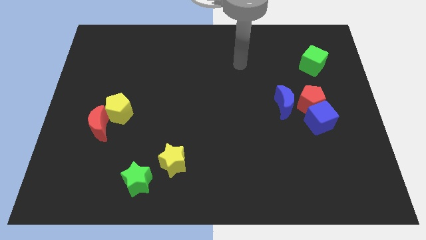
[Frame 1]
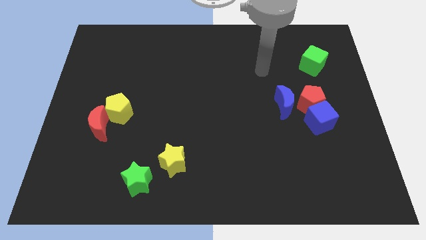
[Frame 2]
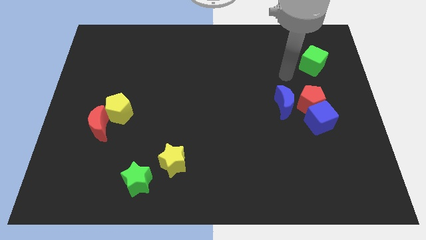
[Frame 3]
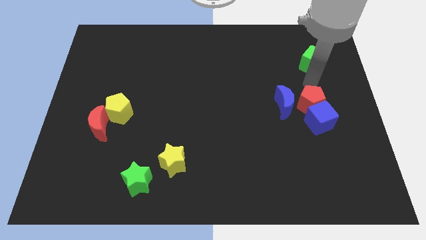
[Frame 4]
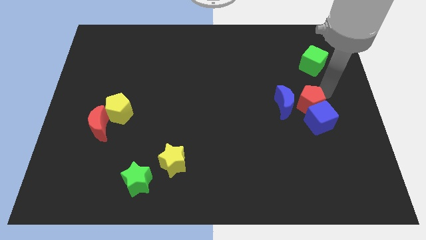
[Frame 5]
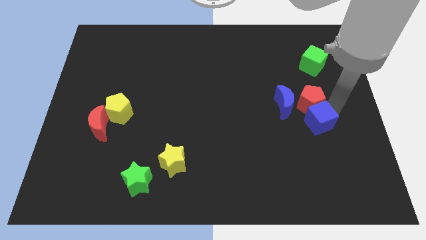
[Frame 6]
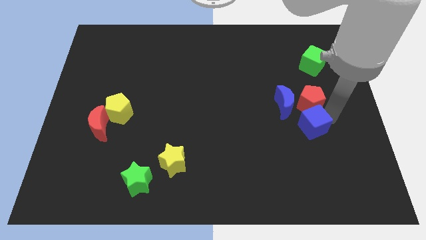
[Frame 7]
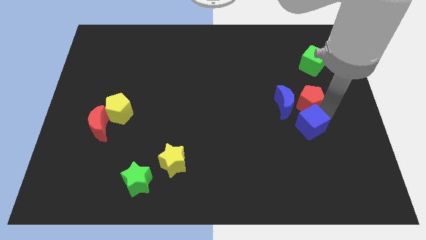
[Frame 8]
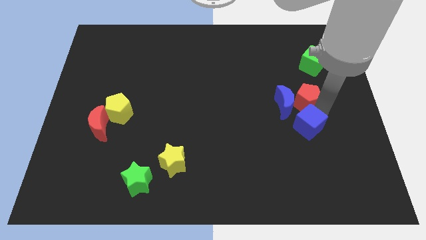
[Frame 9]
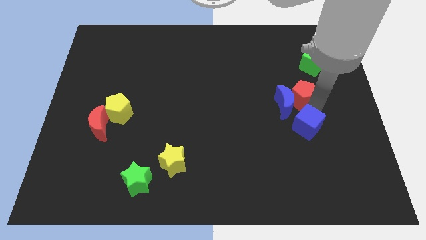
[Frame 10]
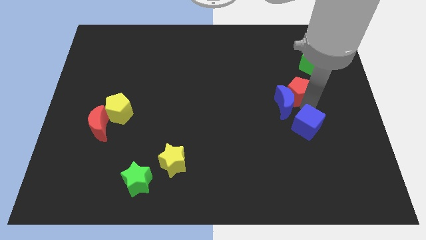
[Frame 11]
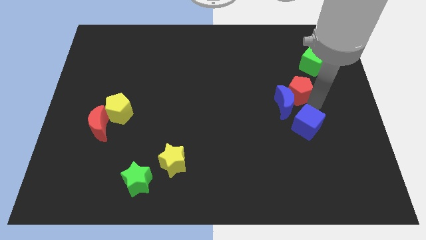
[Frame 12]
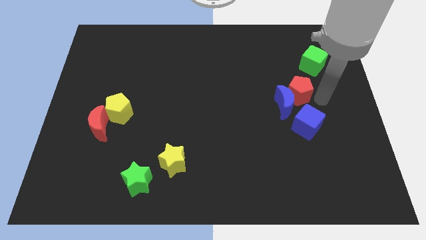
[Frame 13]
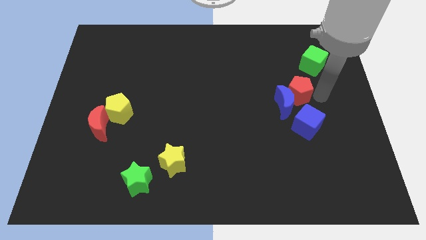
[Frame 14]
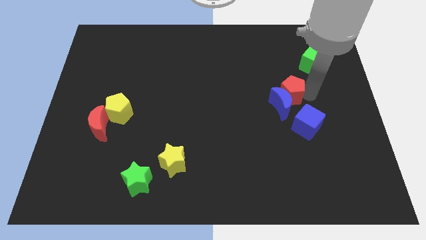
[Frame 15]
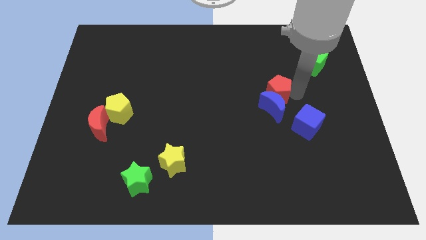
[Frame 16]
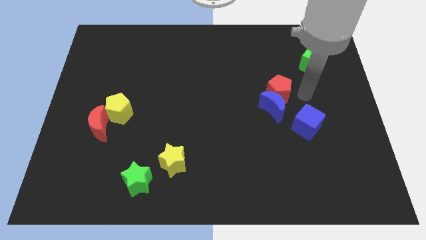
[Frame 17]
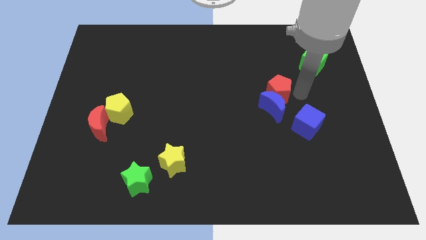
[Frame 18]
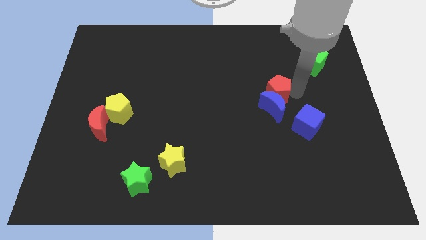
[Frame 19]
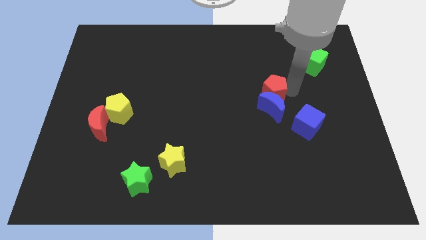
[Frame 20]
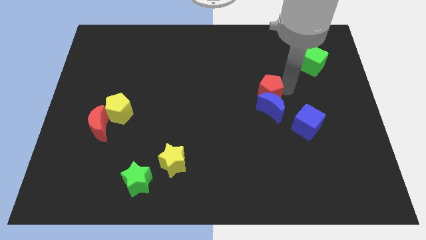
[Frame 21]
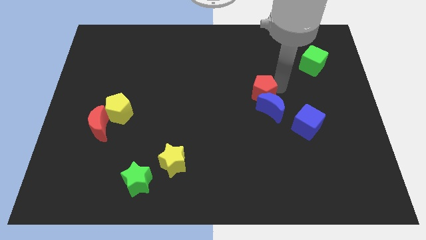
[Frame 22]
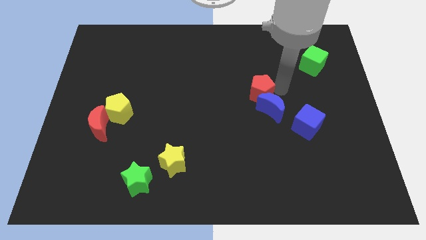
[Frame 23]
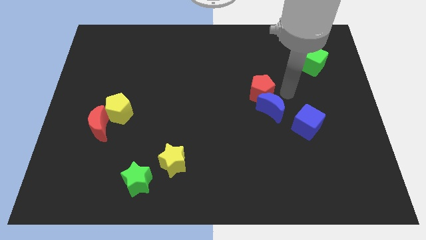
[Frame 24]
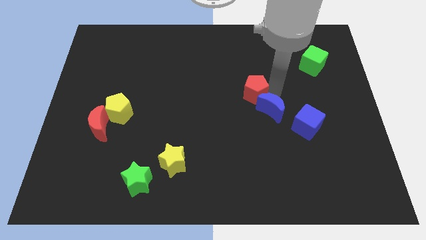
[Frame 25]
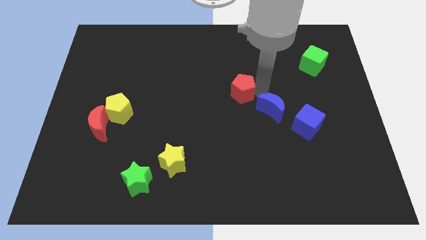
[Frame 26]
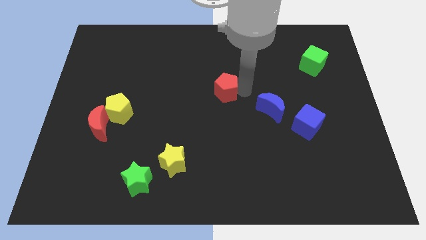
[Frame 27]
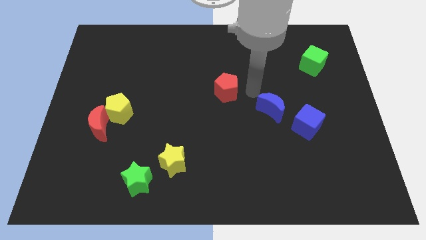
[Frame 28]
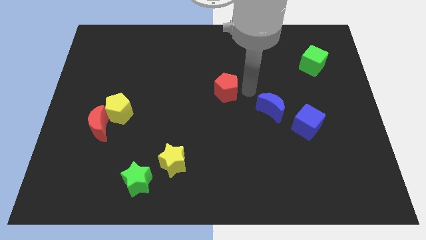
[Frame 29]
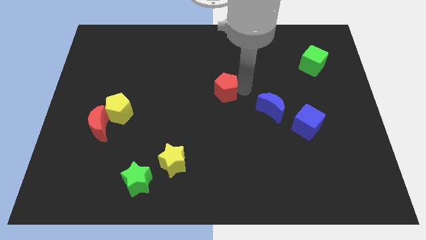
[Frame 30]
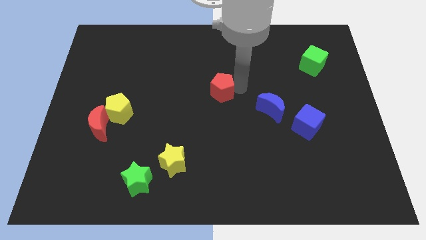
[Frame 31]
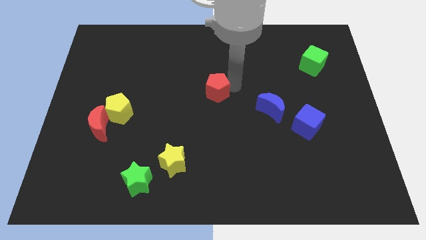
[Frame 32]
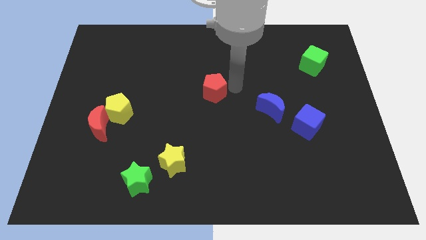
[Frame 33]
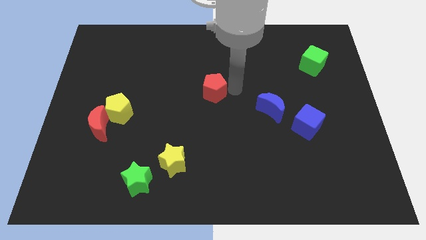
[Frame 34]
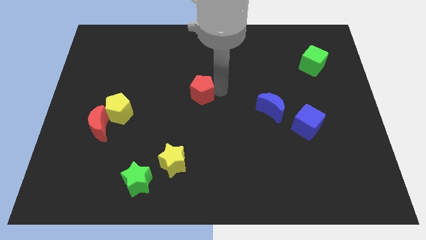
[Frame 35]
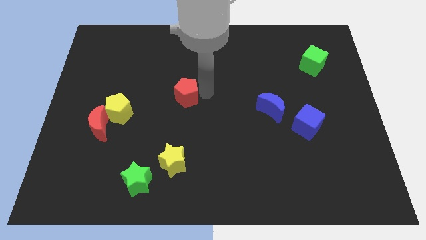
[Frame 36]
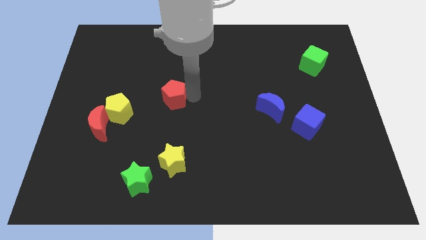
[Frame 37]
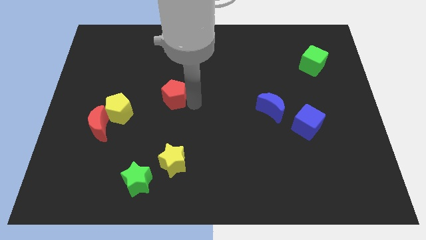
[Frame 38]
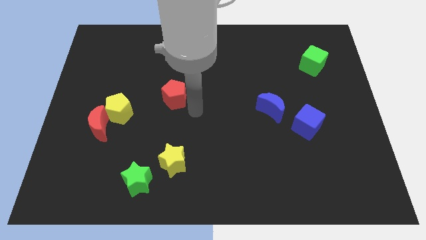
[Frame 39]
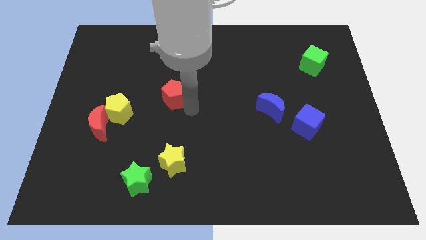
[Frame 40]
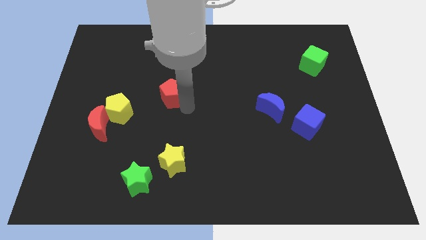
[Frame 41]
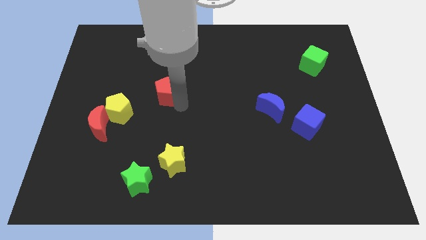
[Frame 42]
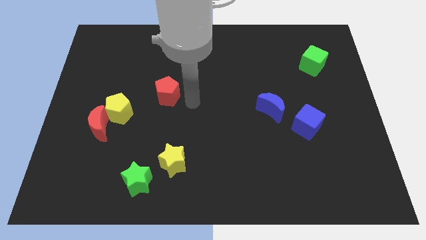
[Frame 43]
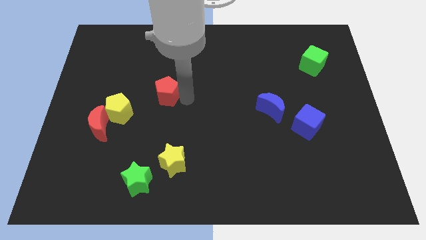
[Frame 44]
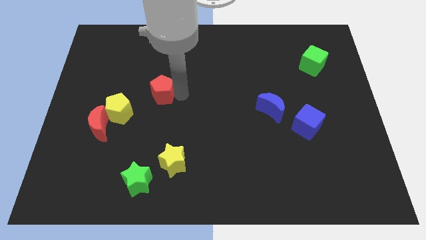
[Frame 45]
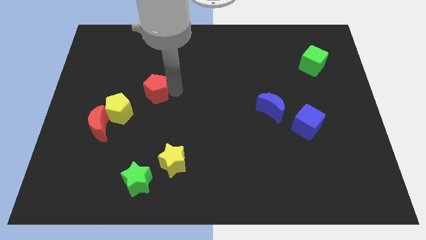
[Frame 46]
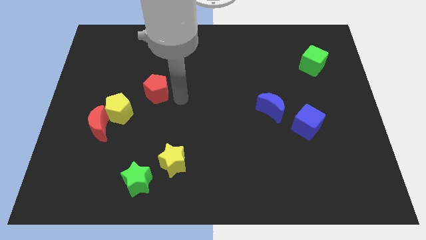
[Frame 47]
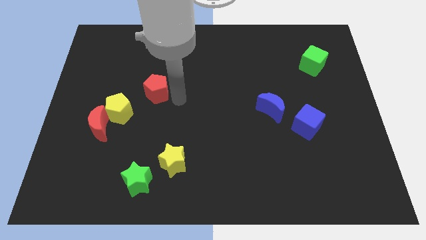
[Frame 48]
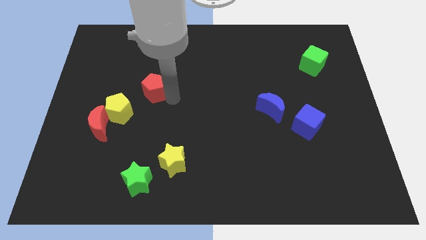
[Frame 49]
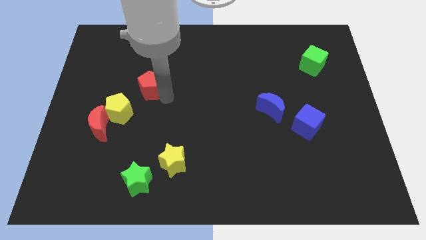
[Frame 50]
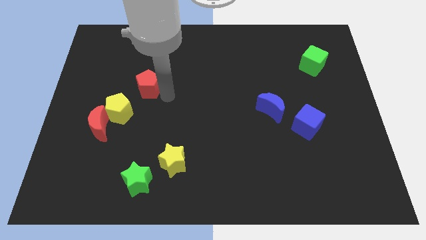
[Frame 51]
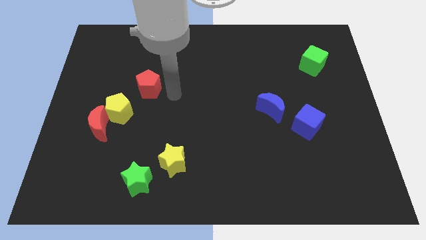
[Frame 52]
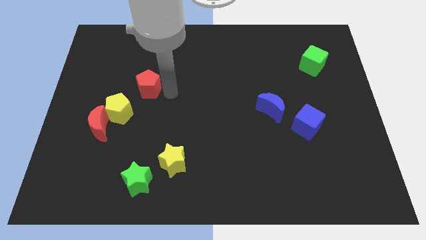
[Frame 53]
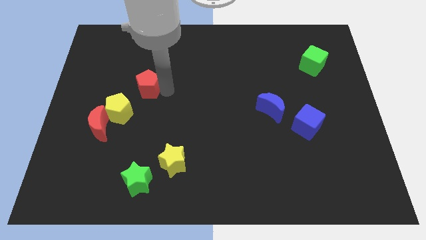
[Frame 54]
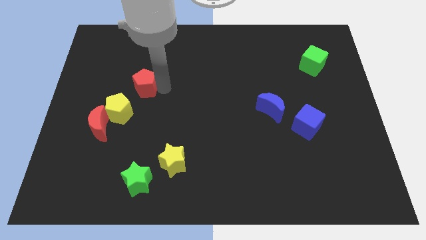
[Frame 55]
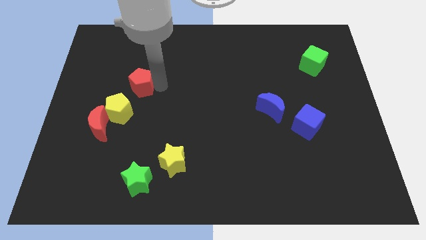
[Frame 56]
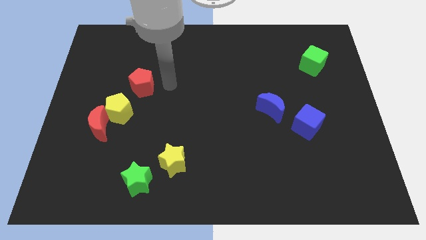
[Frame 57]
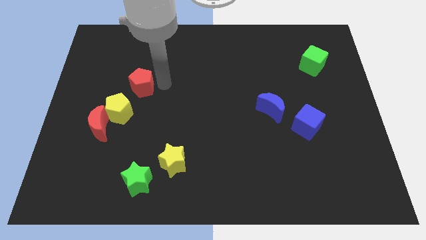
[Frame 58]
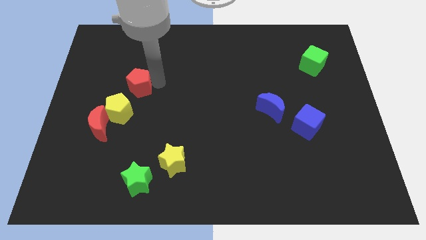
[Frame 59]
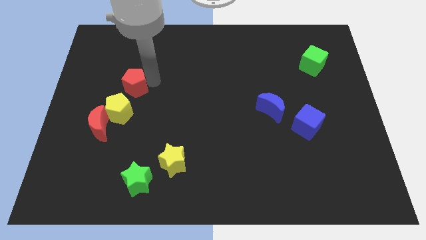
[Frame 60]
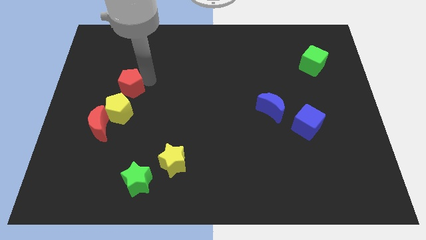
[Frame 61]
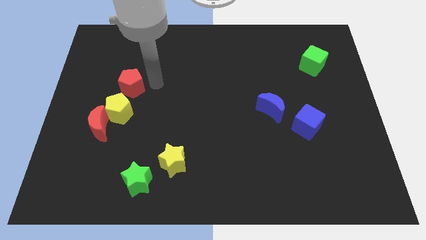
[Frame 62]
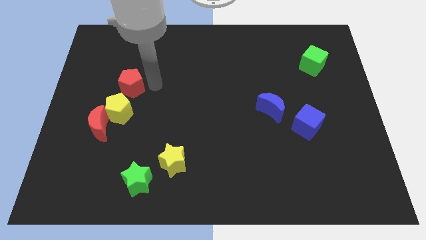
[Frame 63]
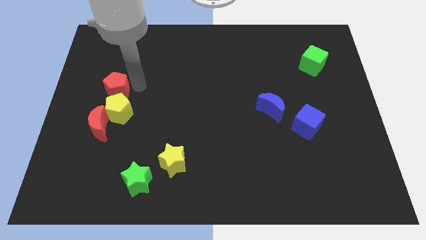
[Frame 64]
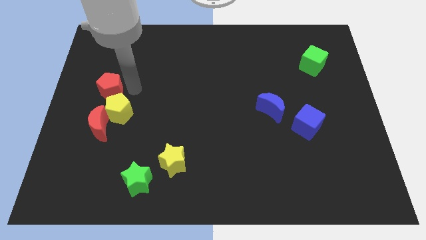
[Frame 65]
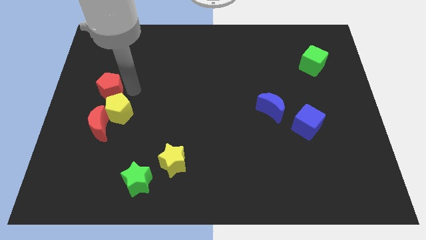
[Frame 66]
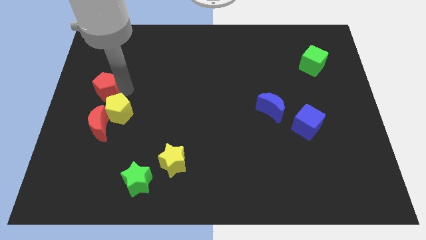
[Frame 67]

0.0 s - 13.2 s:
move the red pentagon to the left side
